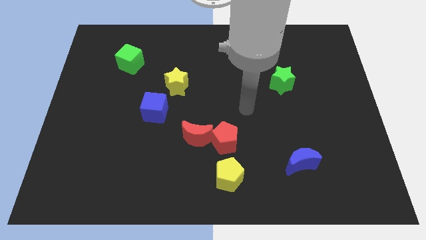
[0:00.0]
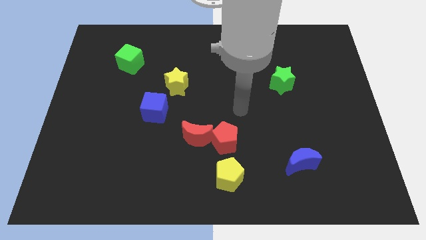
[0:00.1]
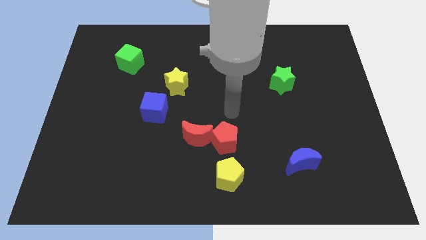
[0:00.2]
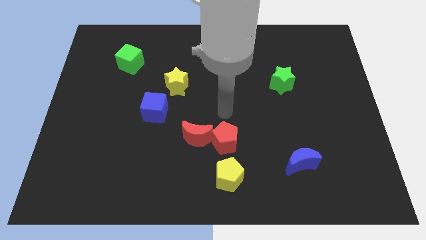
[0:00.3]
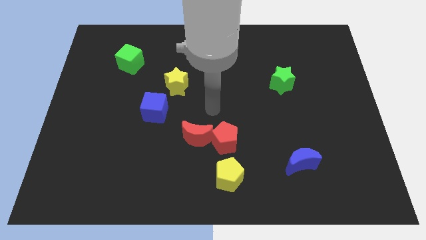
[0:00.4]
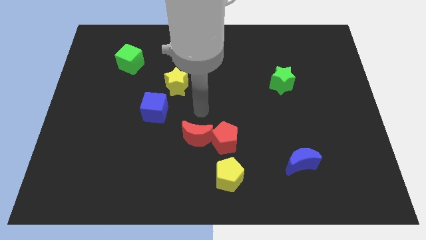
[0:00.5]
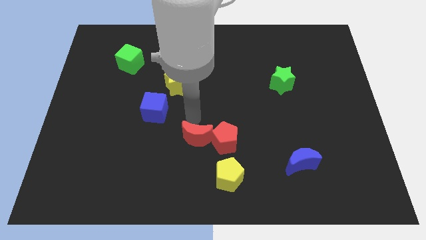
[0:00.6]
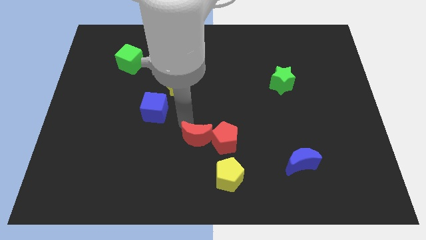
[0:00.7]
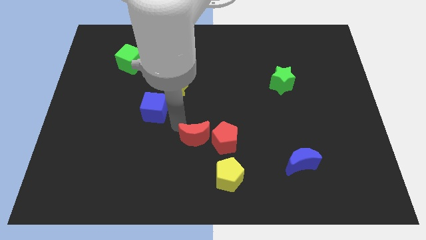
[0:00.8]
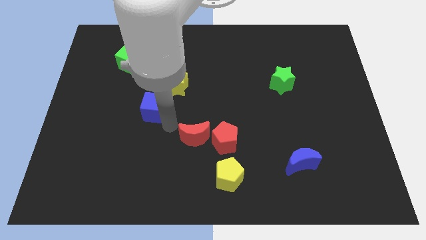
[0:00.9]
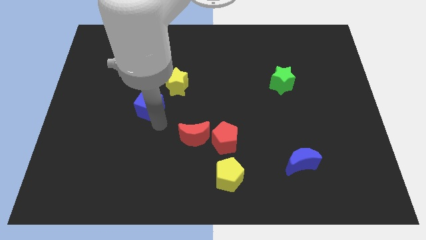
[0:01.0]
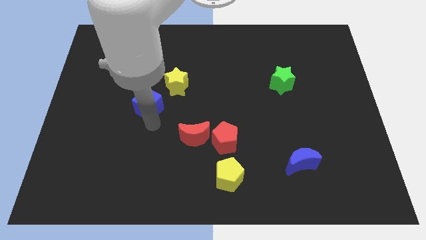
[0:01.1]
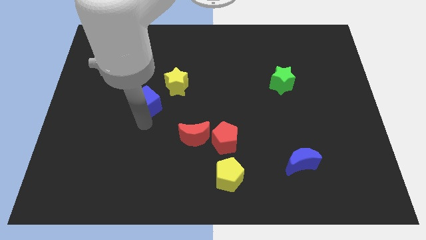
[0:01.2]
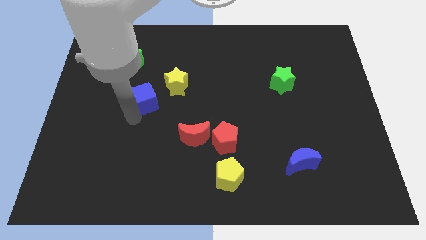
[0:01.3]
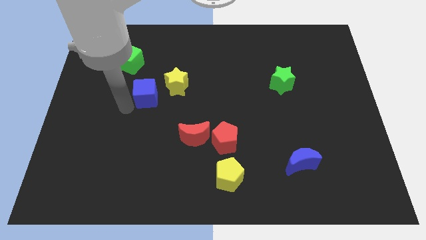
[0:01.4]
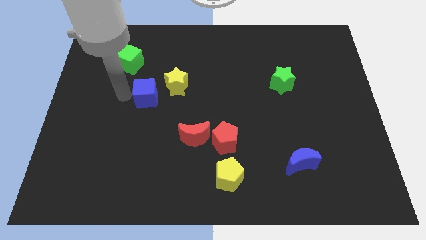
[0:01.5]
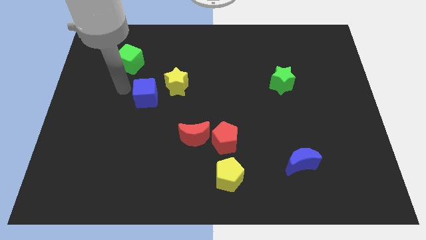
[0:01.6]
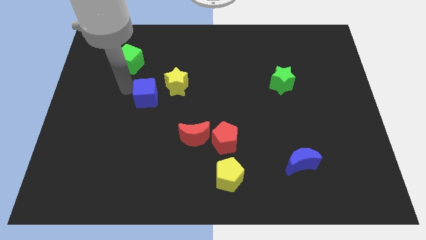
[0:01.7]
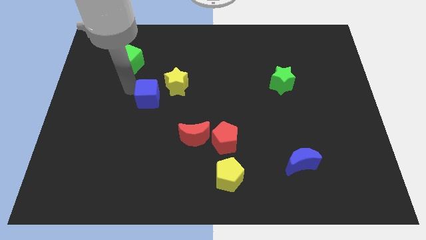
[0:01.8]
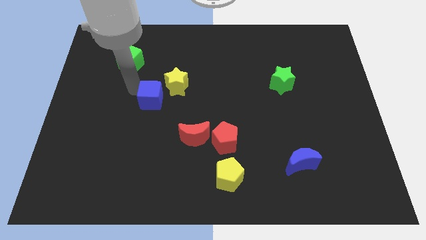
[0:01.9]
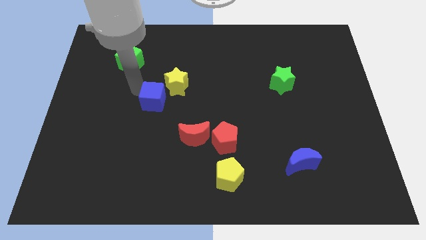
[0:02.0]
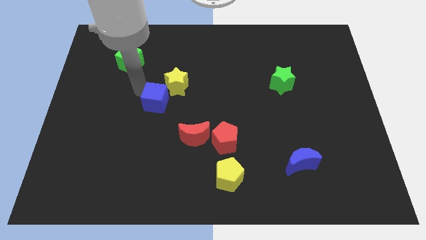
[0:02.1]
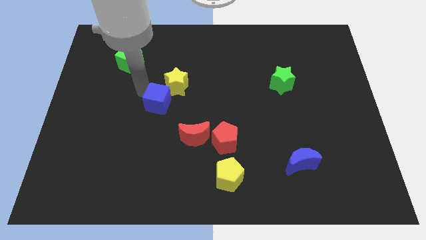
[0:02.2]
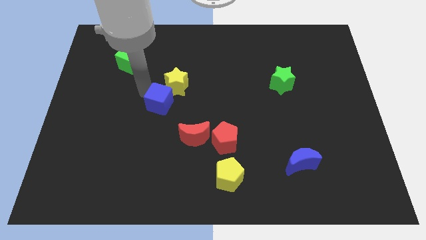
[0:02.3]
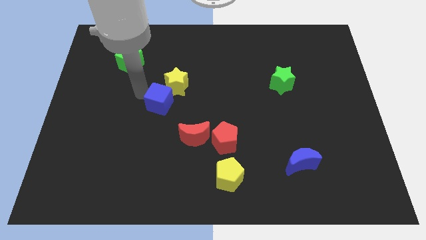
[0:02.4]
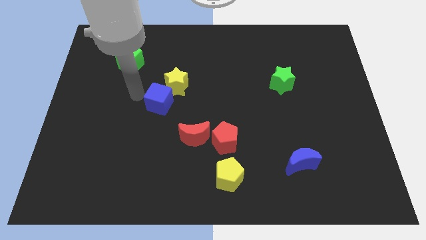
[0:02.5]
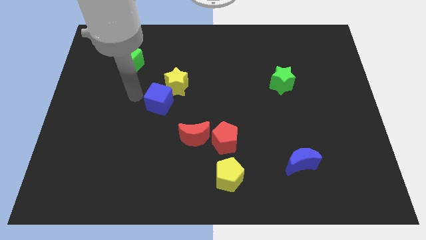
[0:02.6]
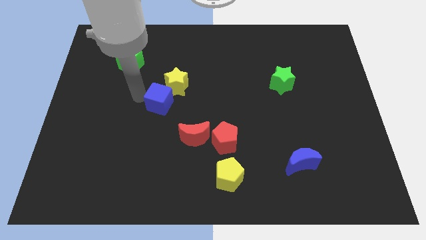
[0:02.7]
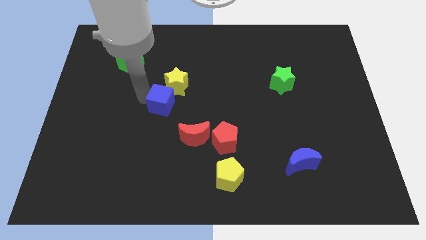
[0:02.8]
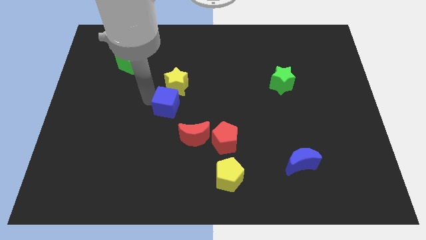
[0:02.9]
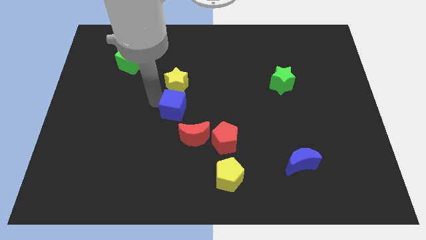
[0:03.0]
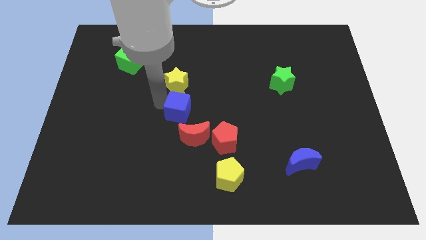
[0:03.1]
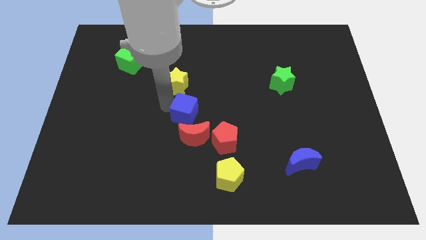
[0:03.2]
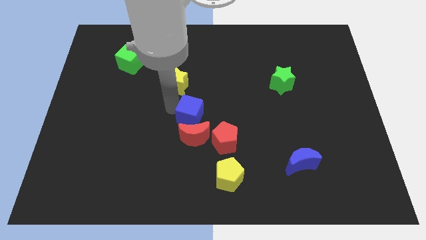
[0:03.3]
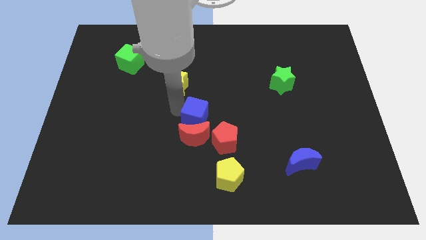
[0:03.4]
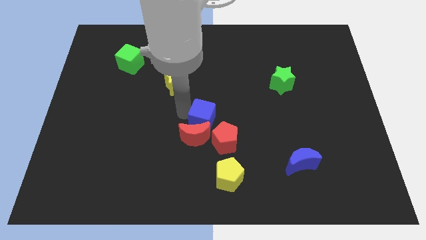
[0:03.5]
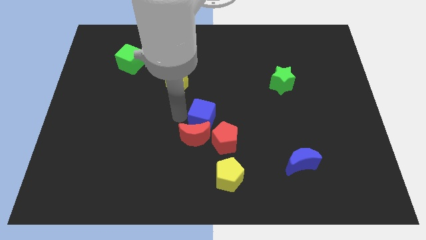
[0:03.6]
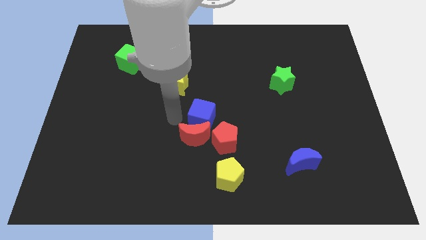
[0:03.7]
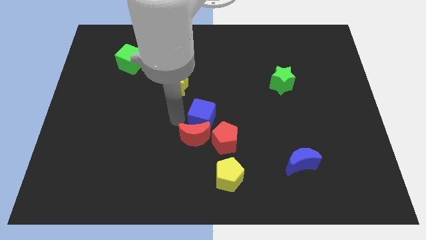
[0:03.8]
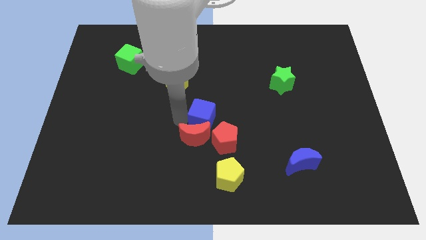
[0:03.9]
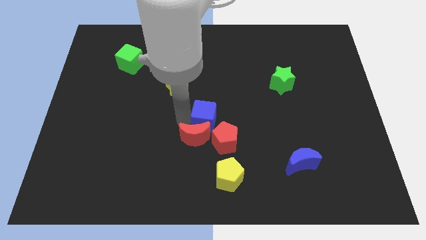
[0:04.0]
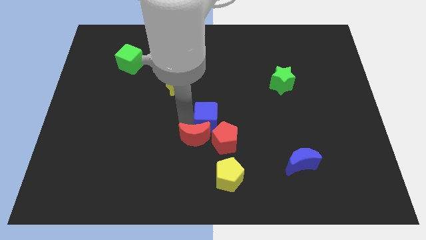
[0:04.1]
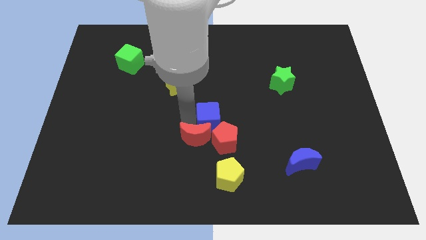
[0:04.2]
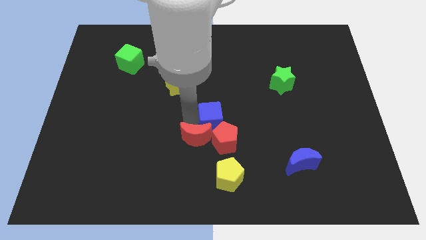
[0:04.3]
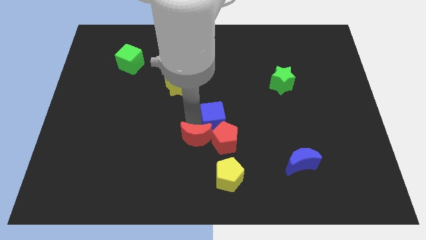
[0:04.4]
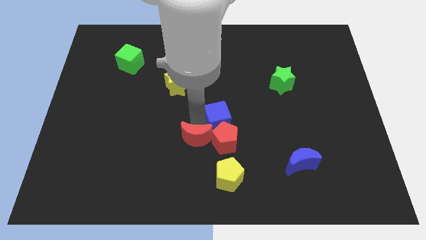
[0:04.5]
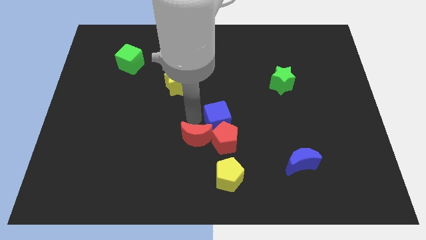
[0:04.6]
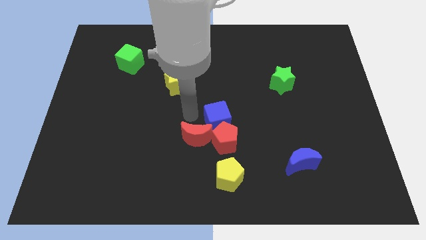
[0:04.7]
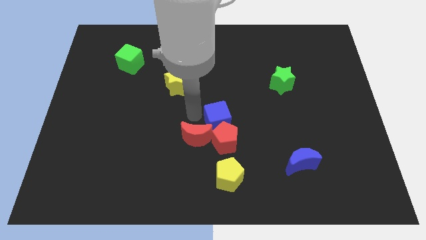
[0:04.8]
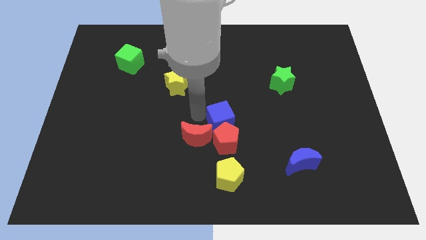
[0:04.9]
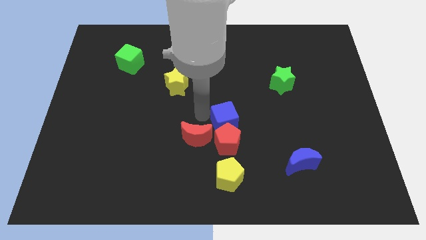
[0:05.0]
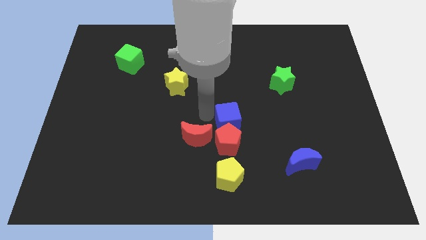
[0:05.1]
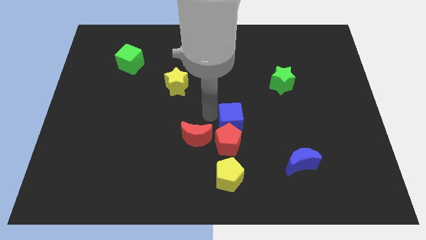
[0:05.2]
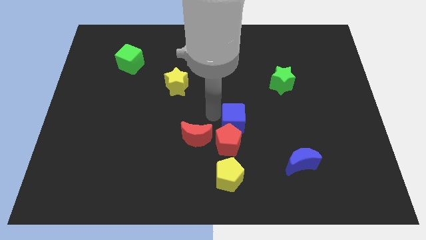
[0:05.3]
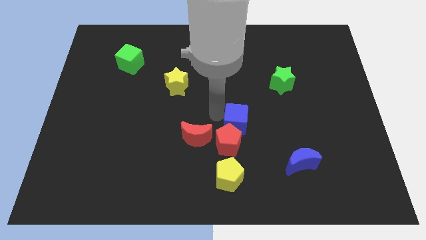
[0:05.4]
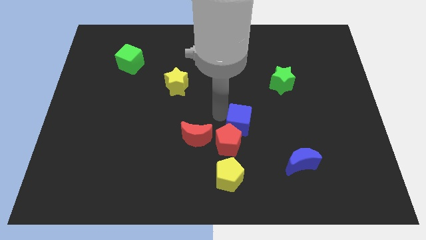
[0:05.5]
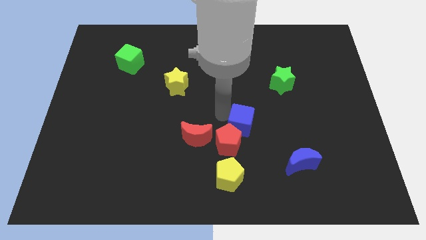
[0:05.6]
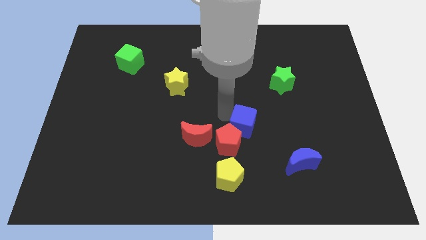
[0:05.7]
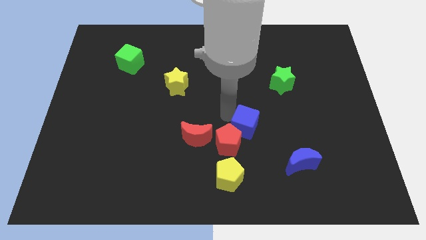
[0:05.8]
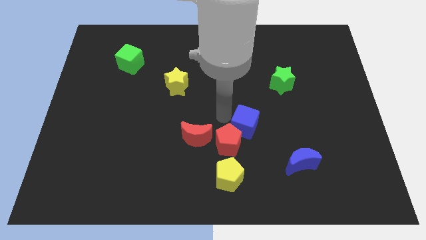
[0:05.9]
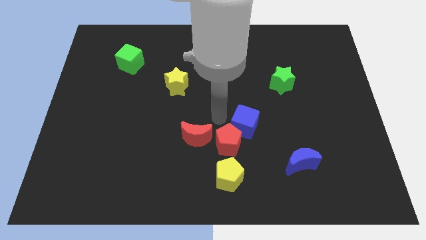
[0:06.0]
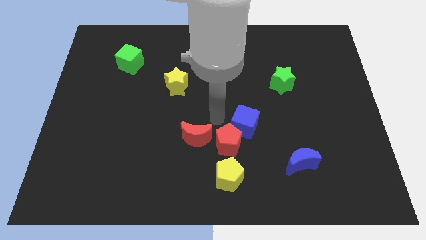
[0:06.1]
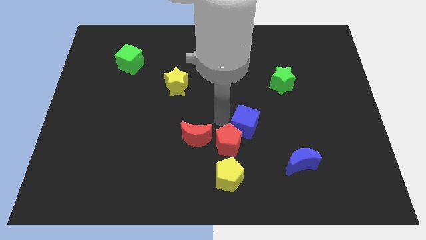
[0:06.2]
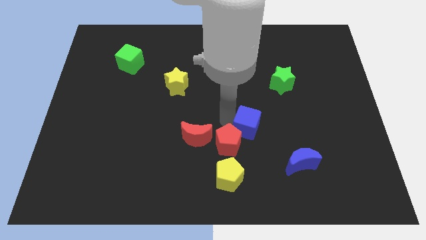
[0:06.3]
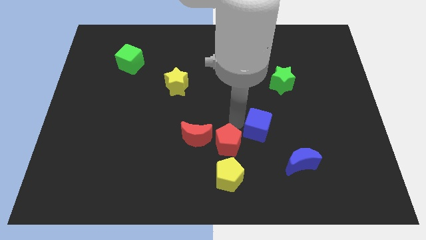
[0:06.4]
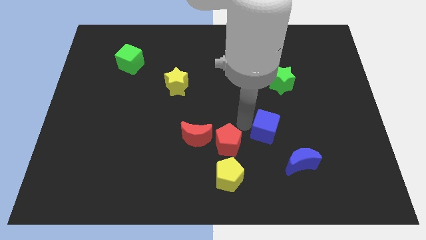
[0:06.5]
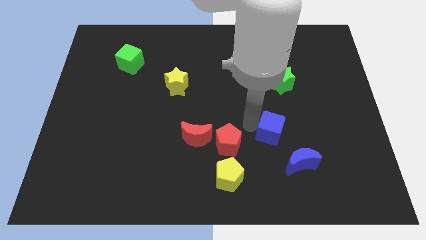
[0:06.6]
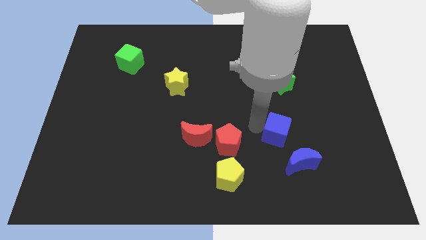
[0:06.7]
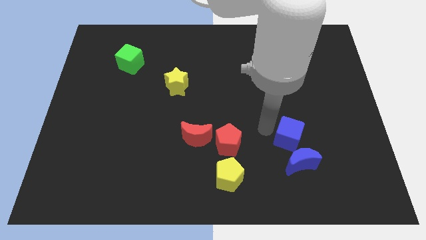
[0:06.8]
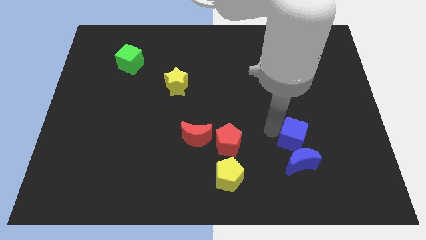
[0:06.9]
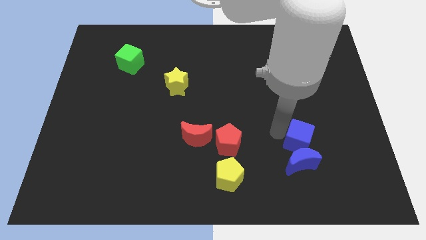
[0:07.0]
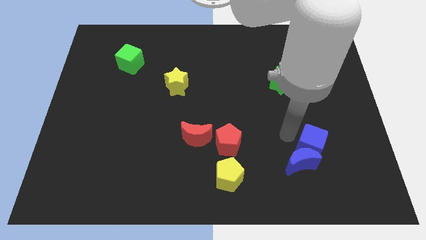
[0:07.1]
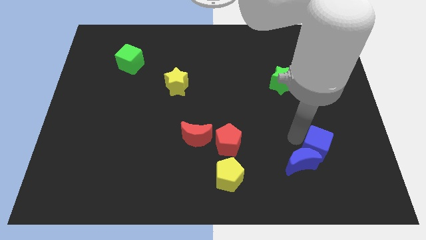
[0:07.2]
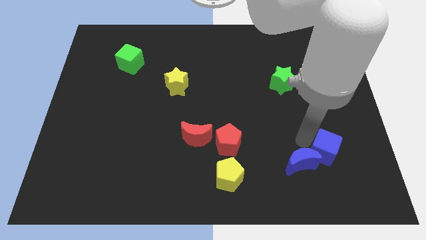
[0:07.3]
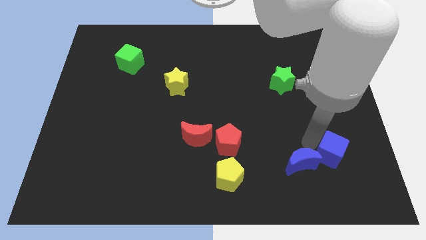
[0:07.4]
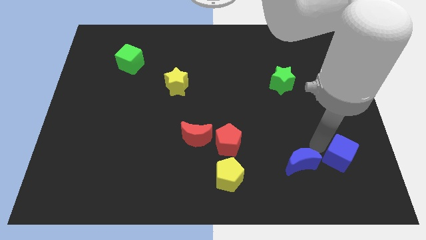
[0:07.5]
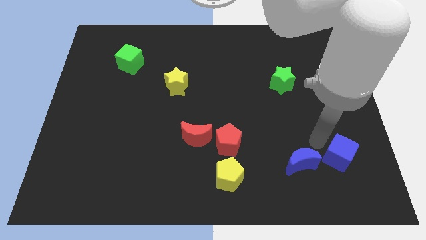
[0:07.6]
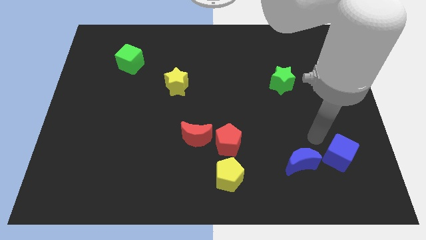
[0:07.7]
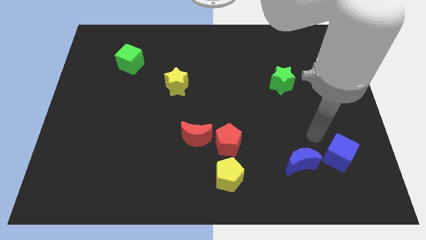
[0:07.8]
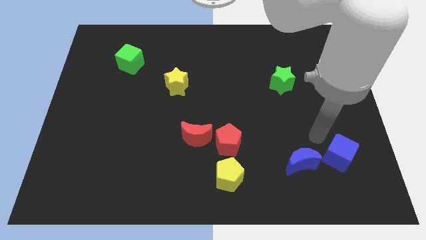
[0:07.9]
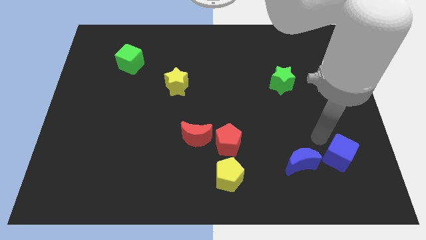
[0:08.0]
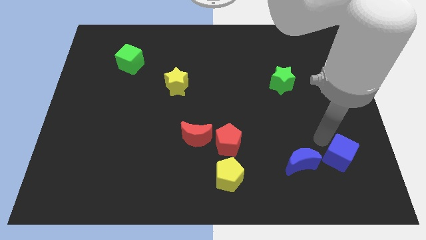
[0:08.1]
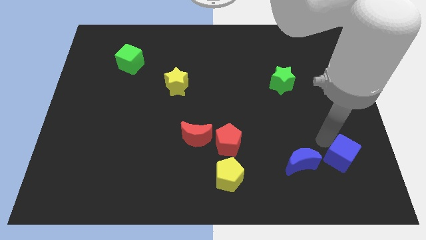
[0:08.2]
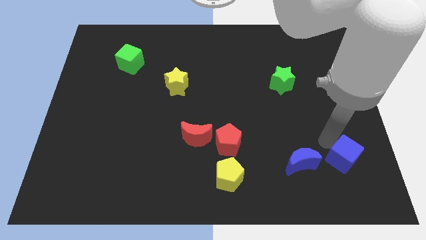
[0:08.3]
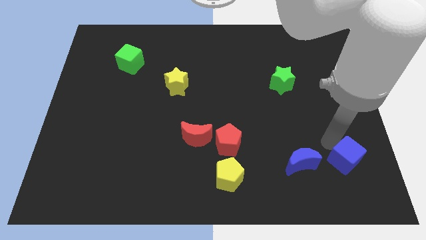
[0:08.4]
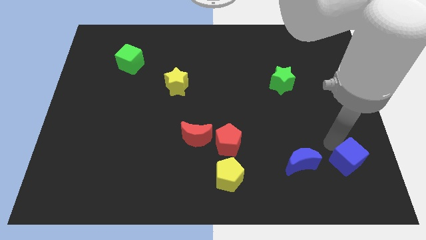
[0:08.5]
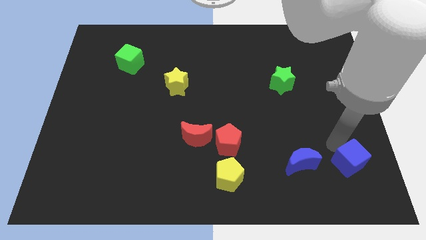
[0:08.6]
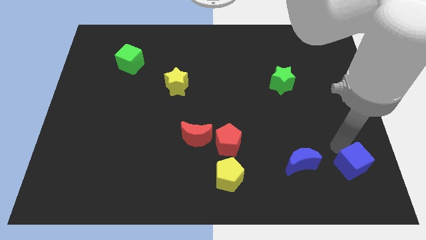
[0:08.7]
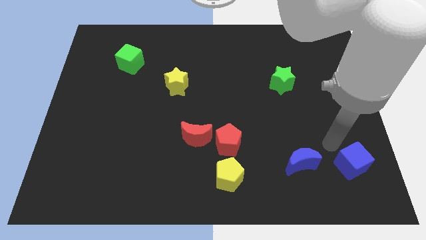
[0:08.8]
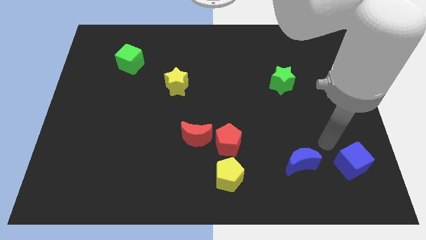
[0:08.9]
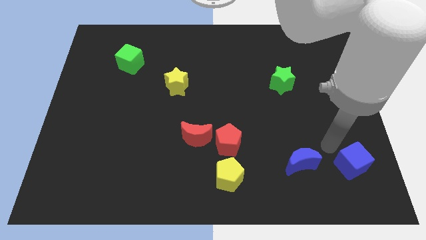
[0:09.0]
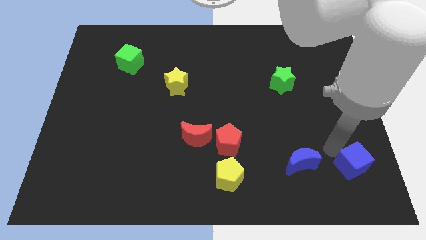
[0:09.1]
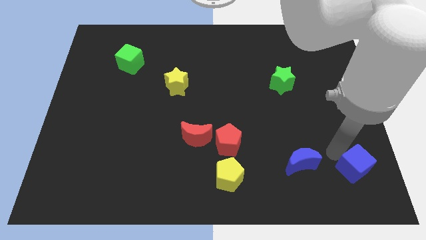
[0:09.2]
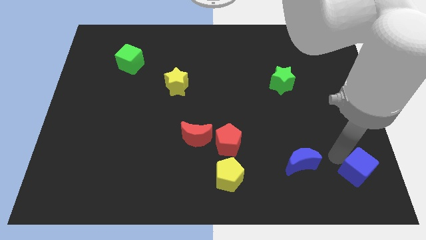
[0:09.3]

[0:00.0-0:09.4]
put the blue cube to the bottom right
